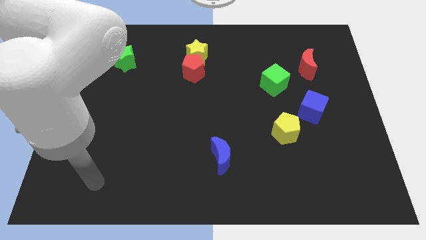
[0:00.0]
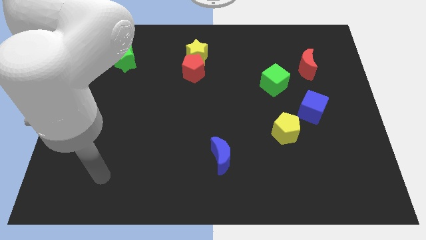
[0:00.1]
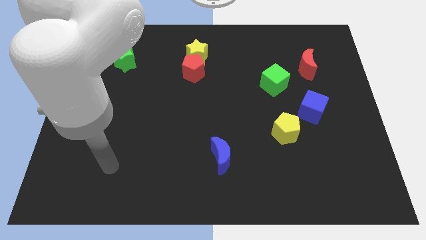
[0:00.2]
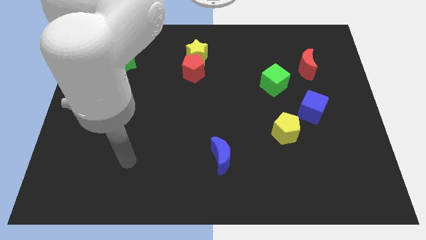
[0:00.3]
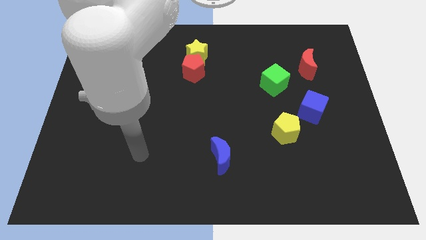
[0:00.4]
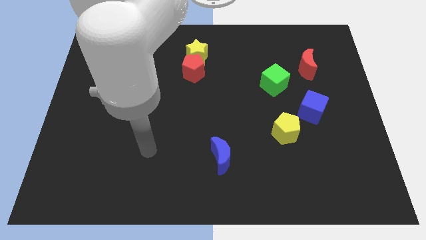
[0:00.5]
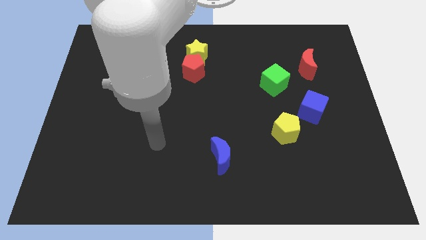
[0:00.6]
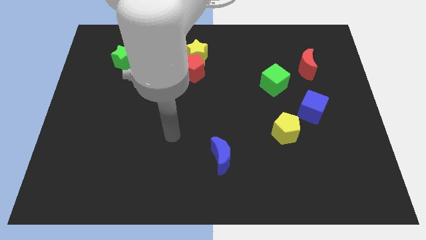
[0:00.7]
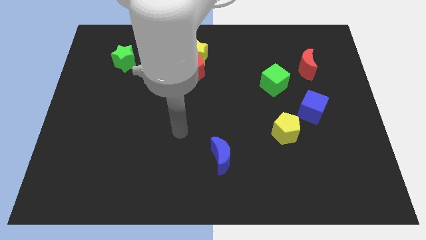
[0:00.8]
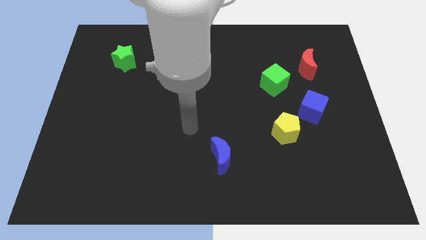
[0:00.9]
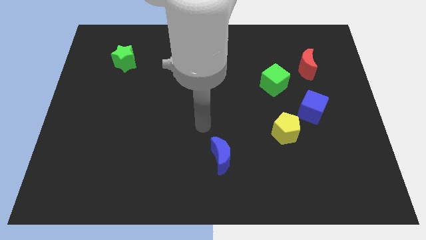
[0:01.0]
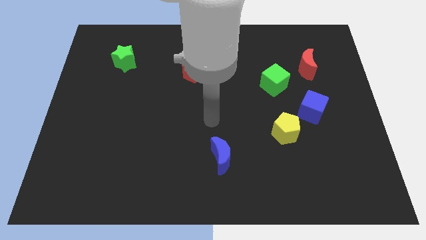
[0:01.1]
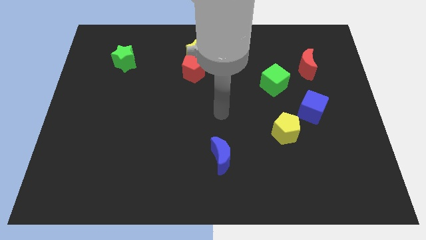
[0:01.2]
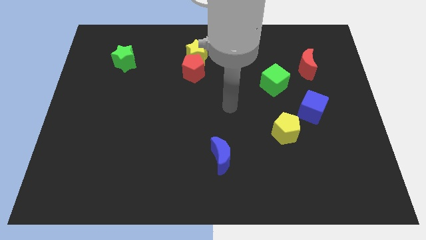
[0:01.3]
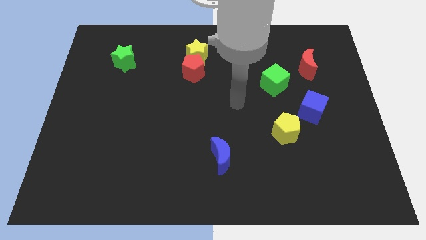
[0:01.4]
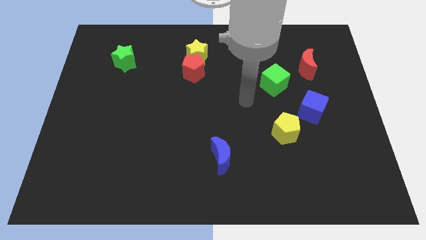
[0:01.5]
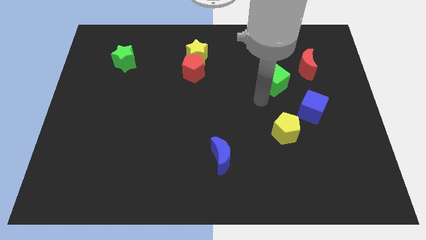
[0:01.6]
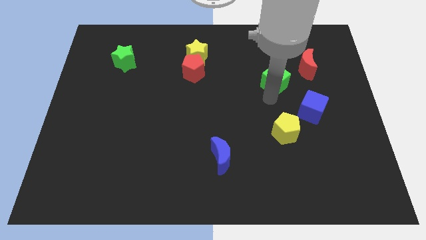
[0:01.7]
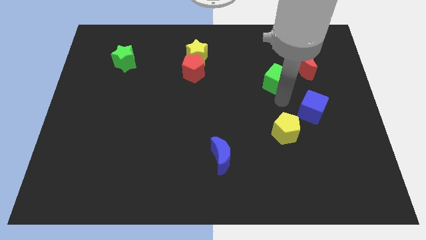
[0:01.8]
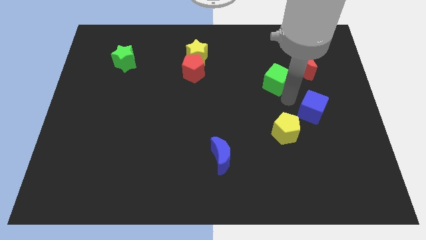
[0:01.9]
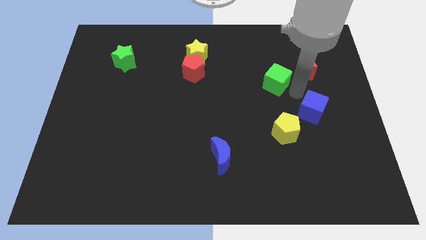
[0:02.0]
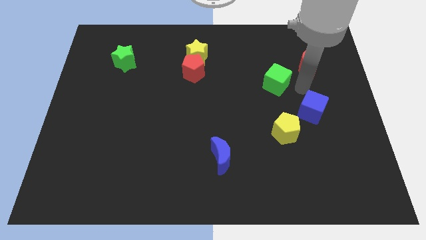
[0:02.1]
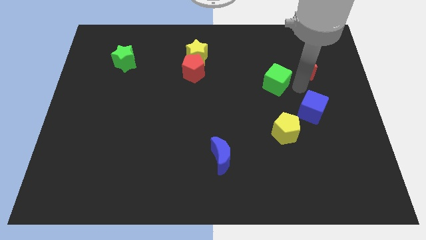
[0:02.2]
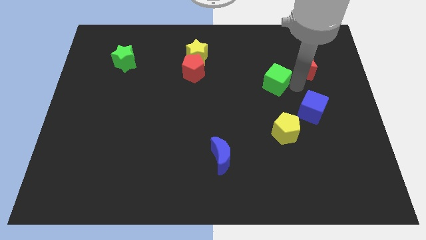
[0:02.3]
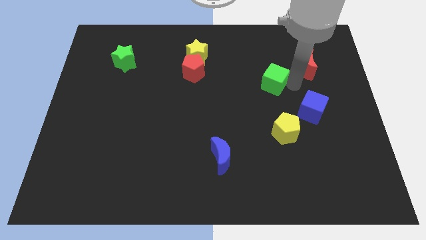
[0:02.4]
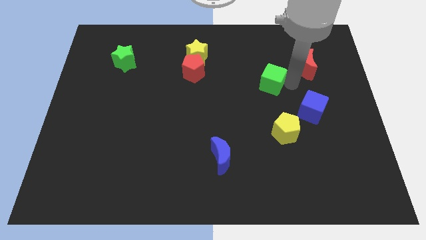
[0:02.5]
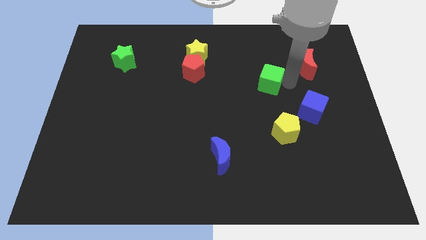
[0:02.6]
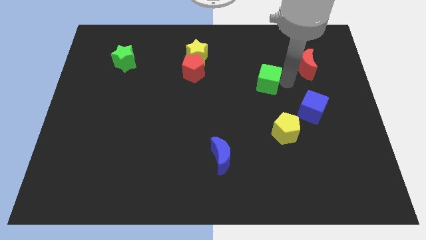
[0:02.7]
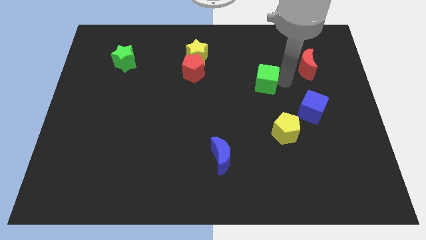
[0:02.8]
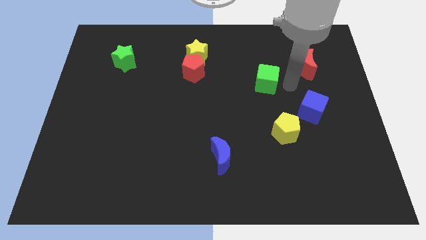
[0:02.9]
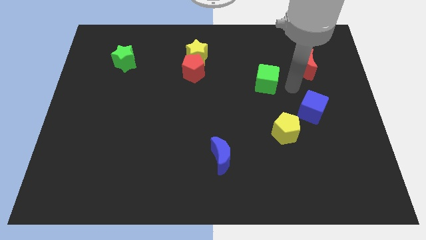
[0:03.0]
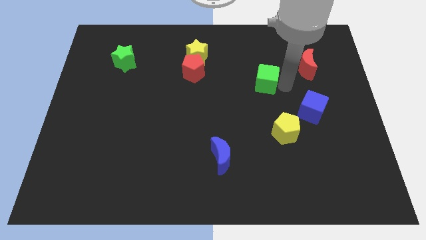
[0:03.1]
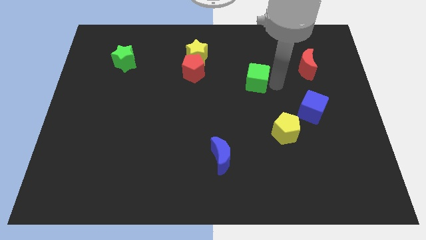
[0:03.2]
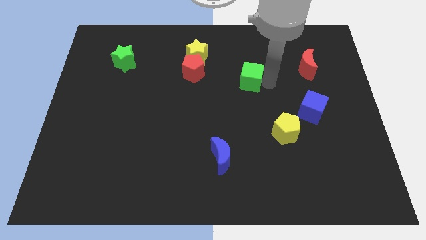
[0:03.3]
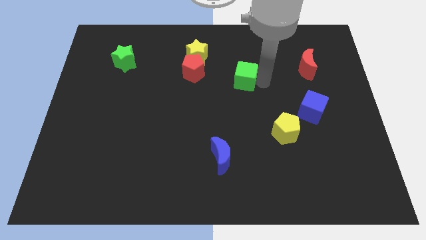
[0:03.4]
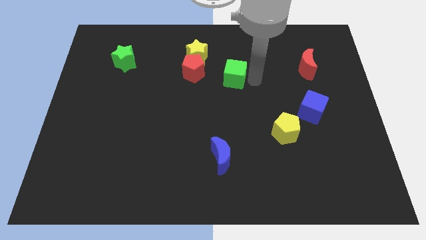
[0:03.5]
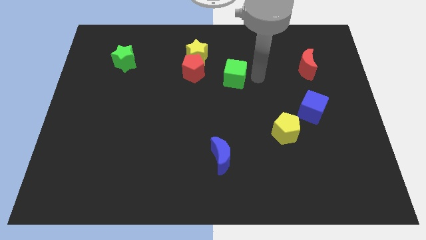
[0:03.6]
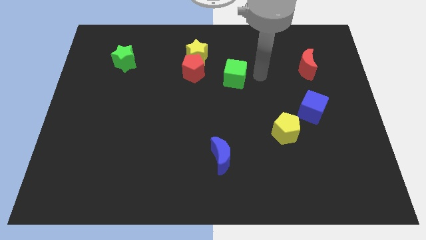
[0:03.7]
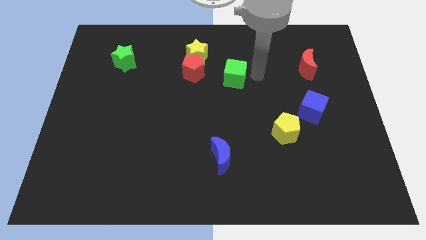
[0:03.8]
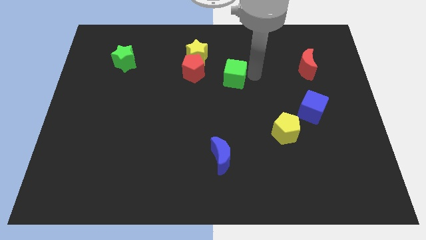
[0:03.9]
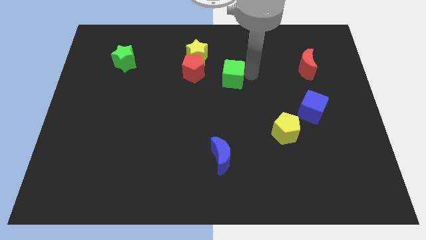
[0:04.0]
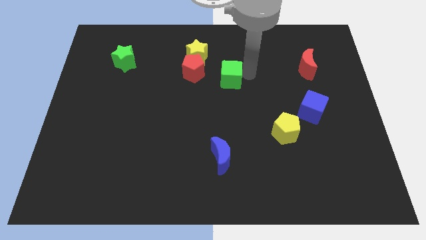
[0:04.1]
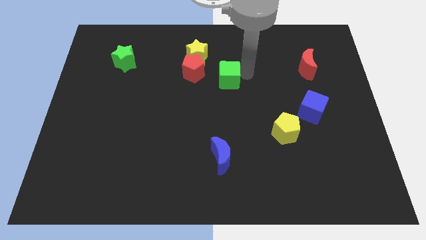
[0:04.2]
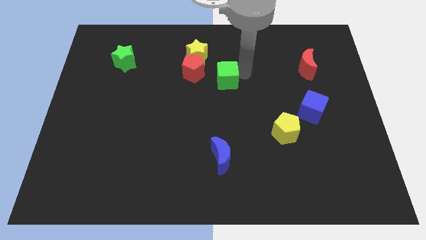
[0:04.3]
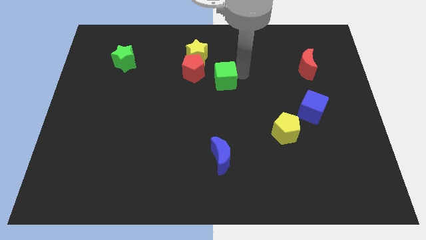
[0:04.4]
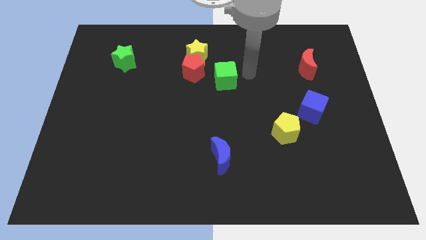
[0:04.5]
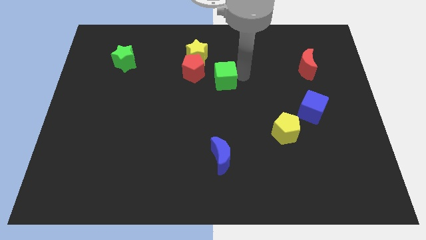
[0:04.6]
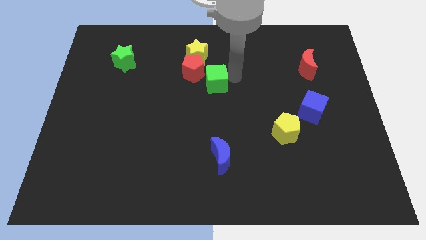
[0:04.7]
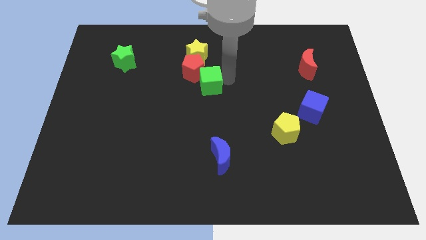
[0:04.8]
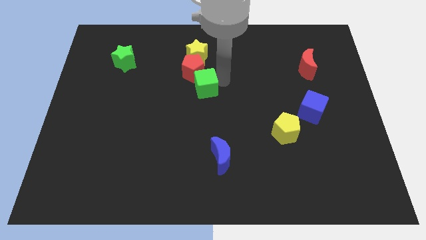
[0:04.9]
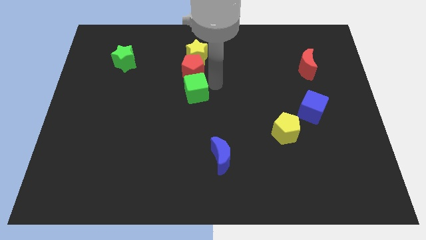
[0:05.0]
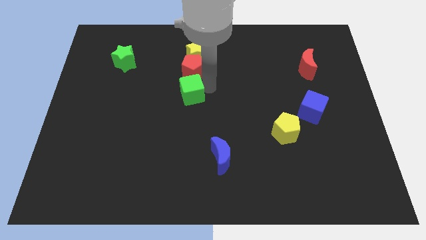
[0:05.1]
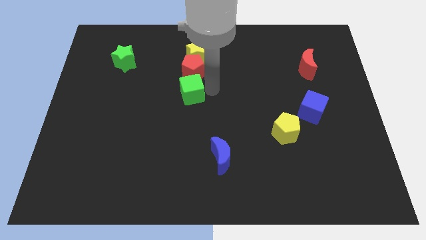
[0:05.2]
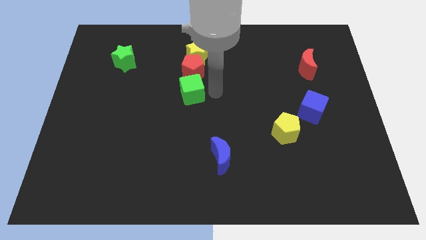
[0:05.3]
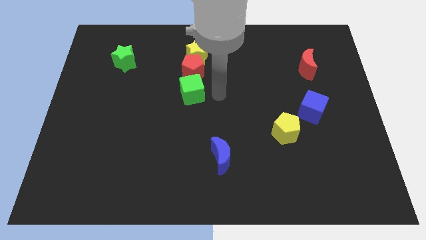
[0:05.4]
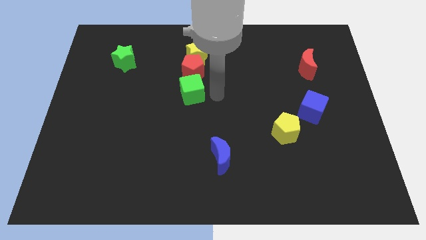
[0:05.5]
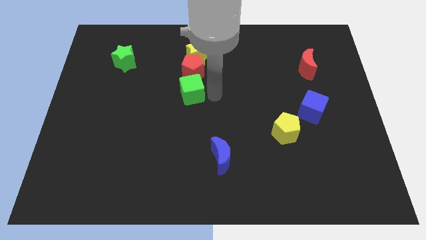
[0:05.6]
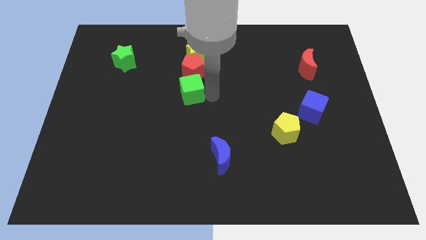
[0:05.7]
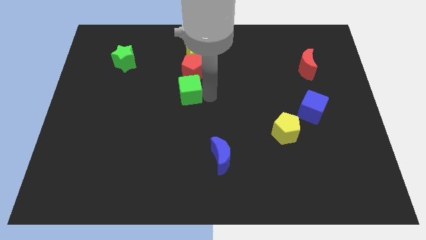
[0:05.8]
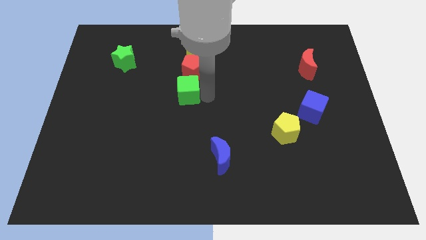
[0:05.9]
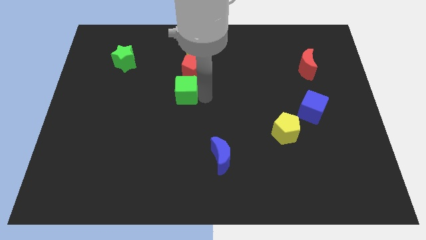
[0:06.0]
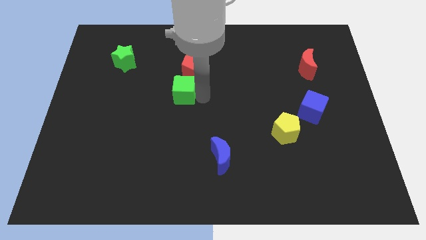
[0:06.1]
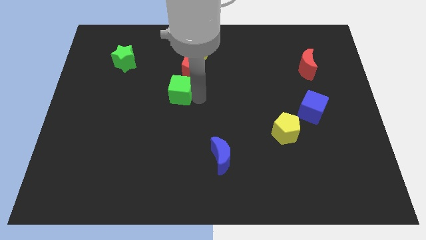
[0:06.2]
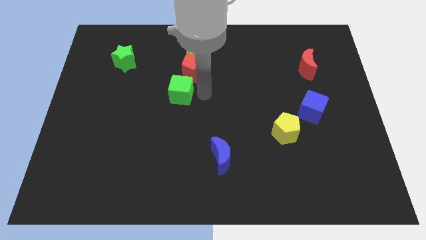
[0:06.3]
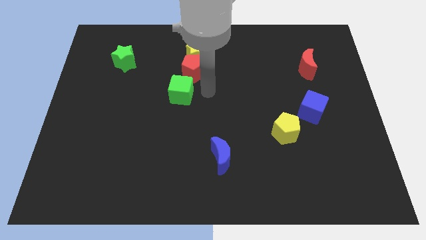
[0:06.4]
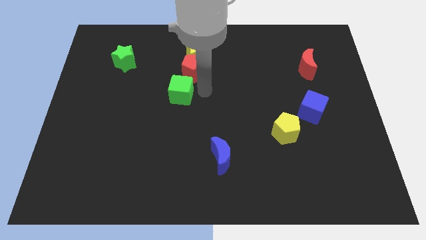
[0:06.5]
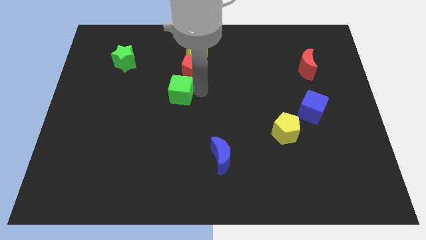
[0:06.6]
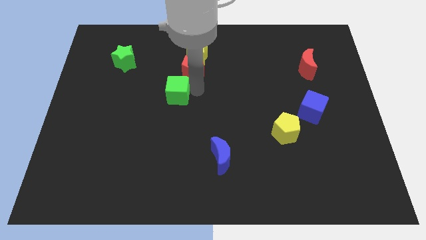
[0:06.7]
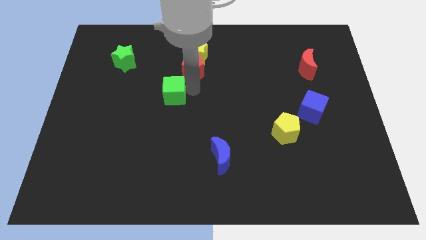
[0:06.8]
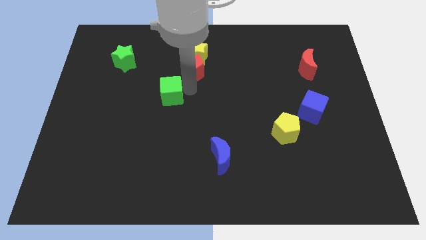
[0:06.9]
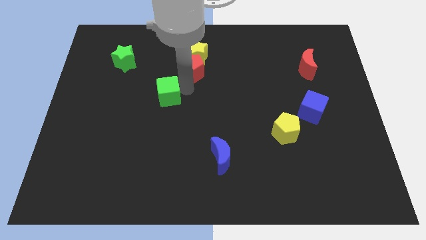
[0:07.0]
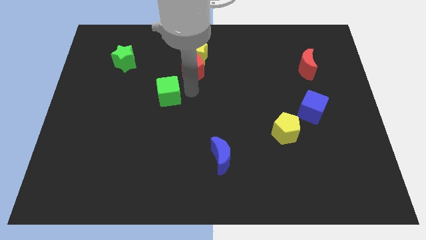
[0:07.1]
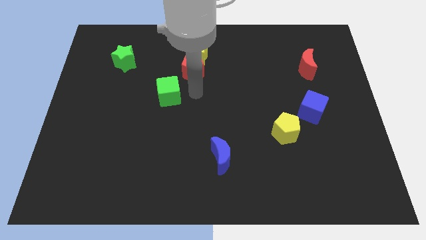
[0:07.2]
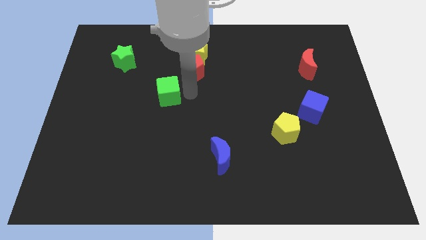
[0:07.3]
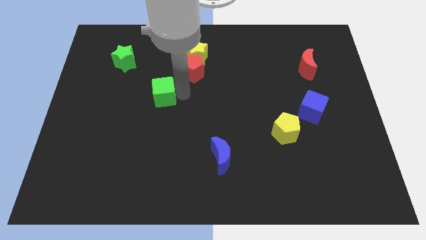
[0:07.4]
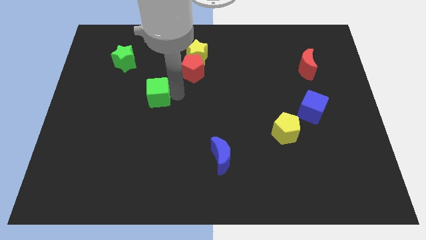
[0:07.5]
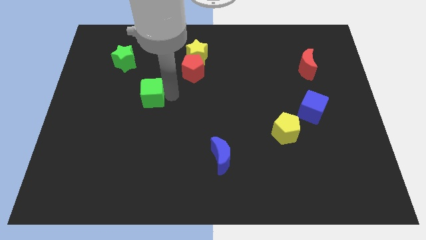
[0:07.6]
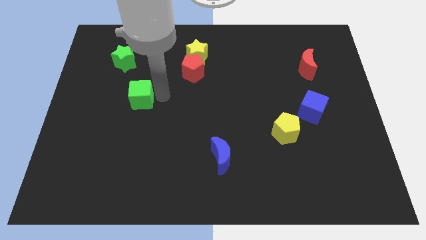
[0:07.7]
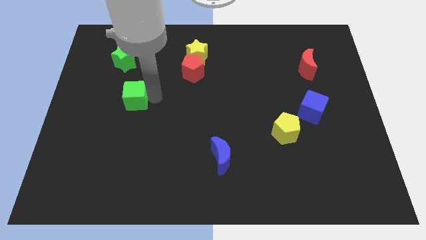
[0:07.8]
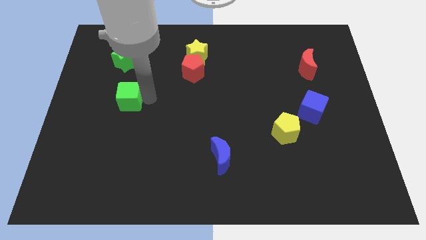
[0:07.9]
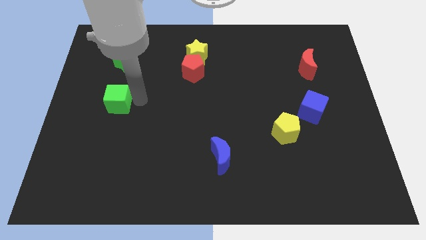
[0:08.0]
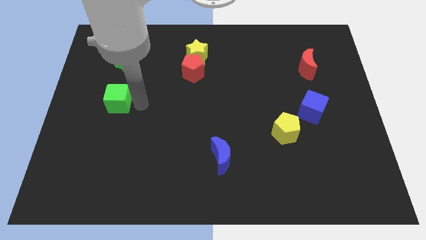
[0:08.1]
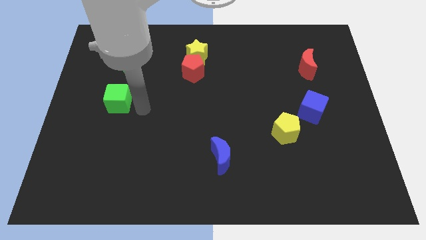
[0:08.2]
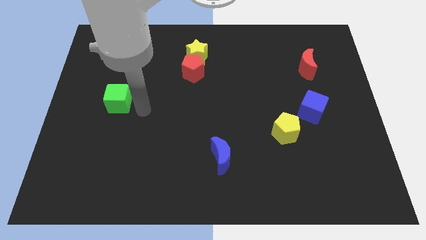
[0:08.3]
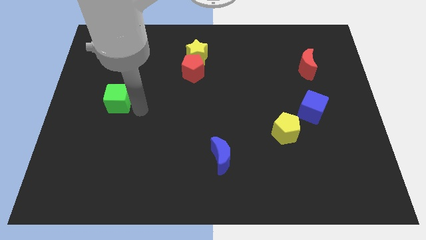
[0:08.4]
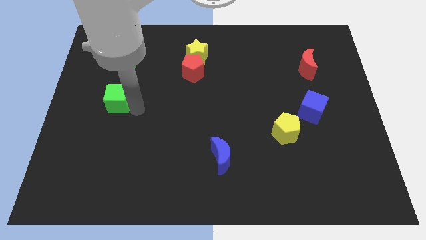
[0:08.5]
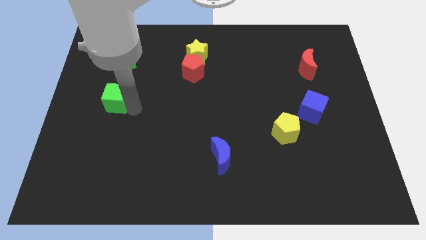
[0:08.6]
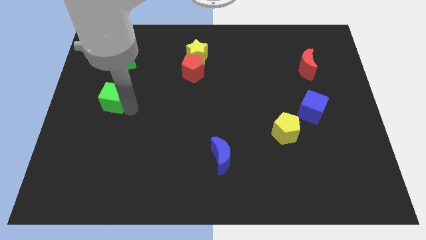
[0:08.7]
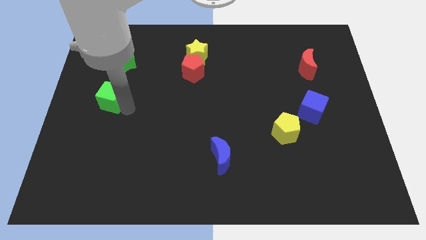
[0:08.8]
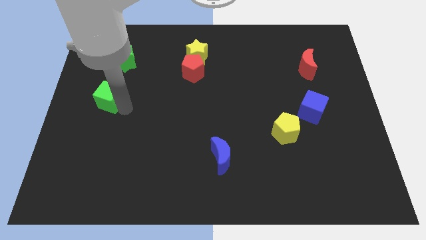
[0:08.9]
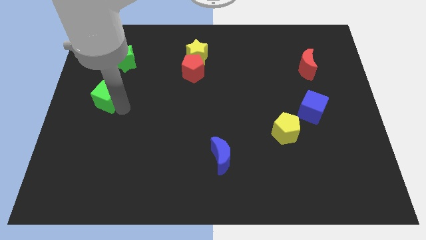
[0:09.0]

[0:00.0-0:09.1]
move the green cube to the center left
